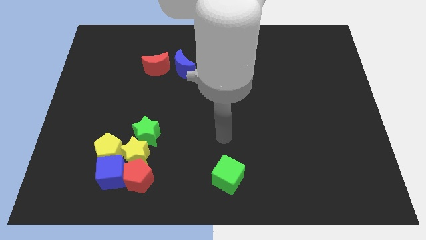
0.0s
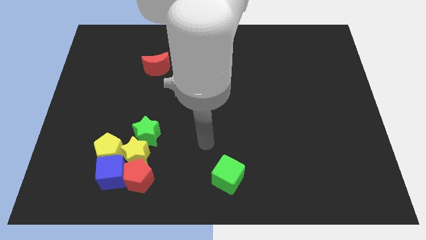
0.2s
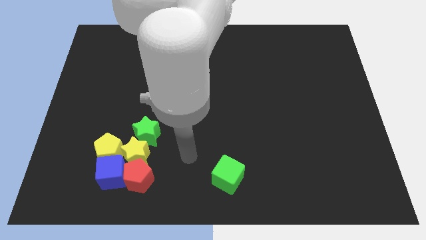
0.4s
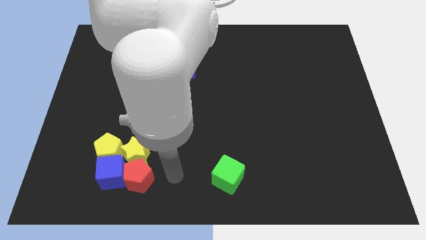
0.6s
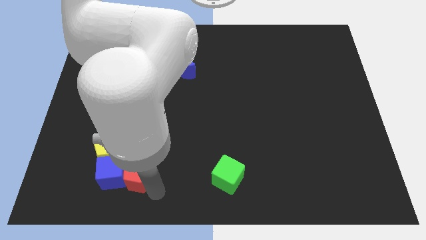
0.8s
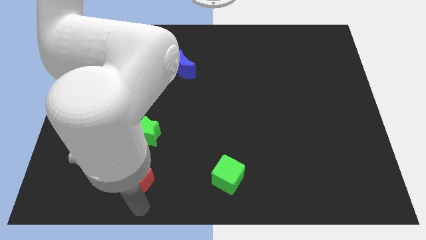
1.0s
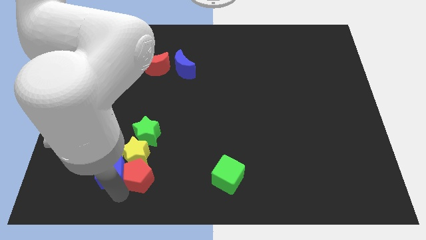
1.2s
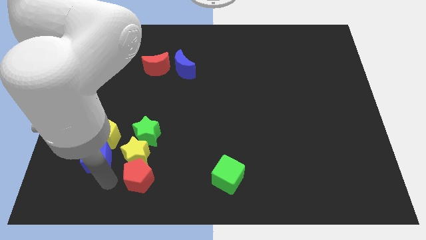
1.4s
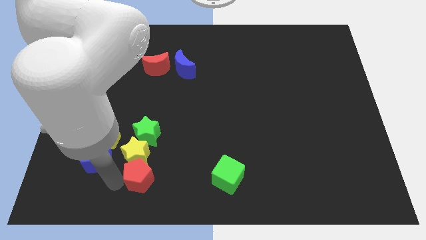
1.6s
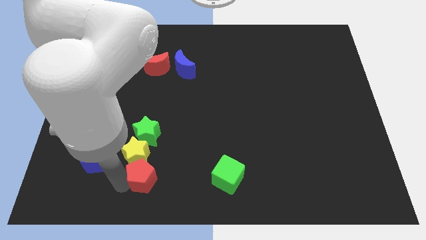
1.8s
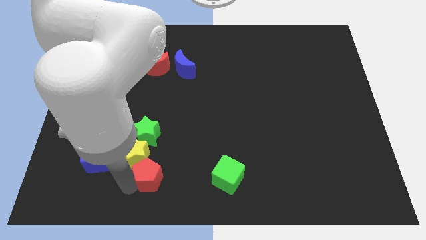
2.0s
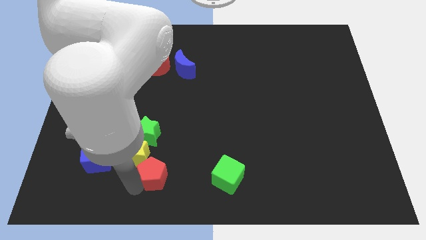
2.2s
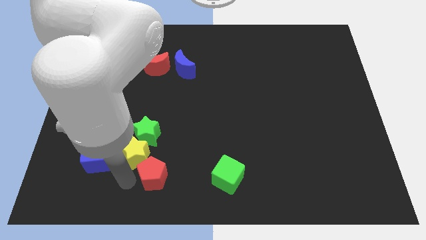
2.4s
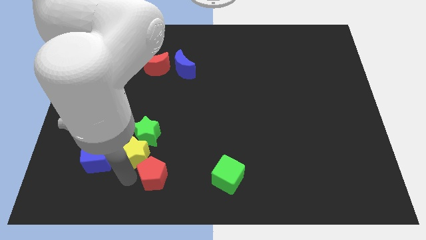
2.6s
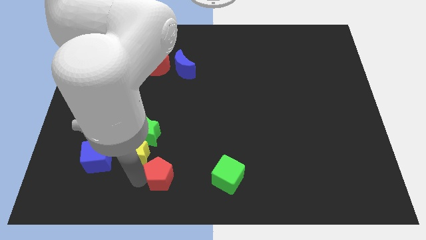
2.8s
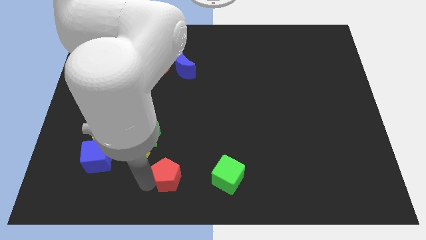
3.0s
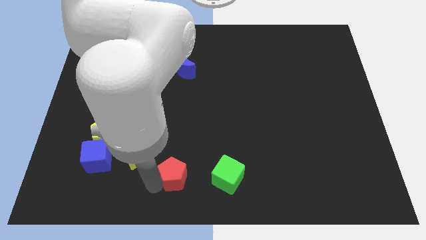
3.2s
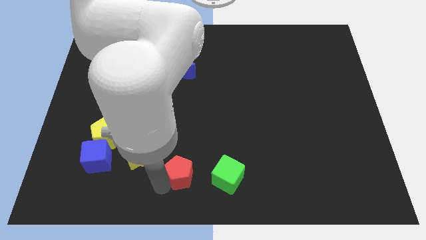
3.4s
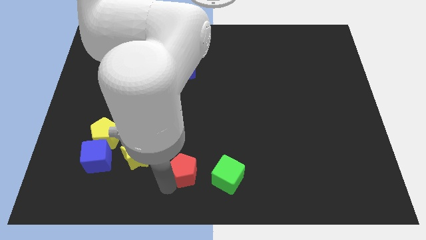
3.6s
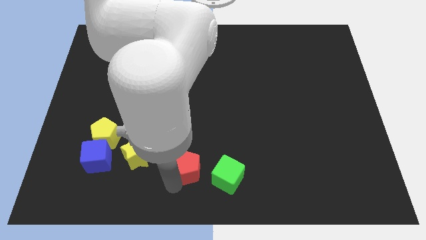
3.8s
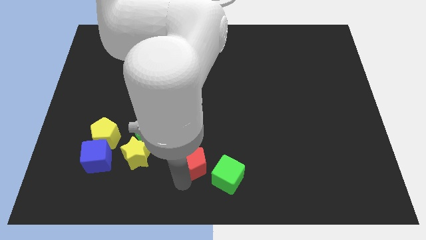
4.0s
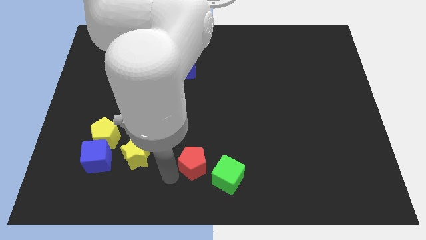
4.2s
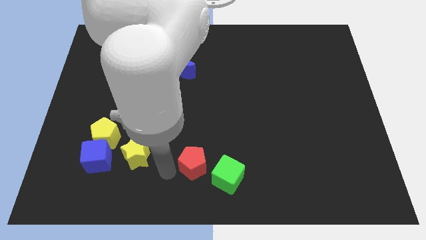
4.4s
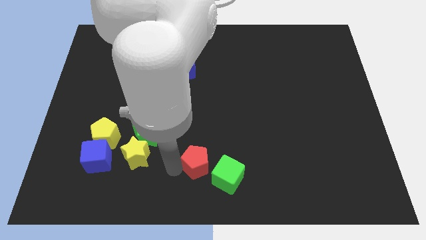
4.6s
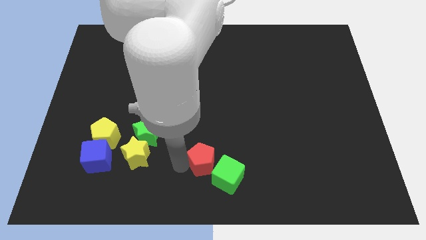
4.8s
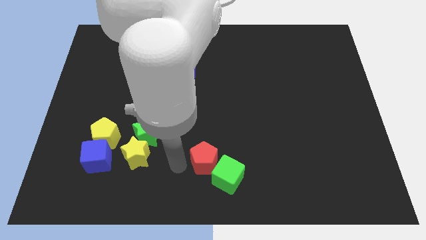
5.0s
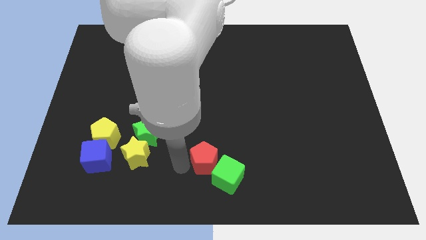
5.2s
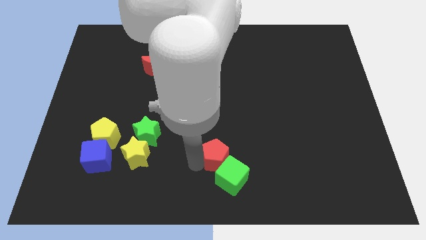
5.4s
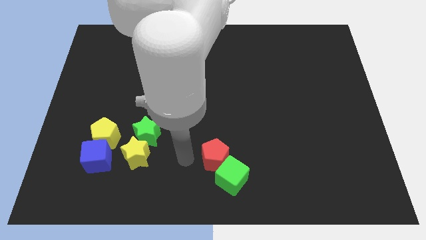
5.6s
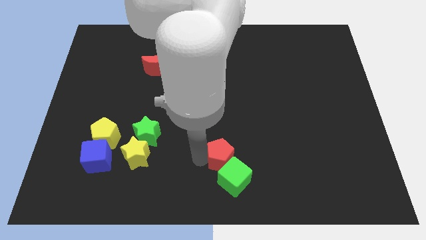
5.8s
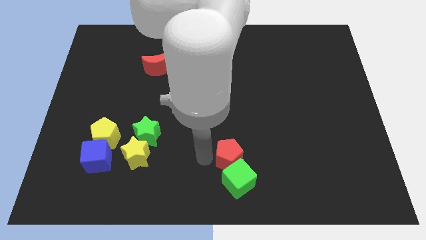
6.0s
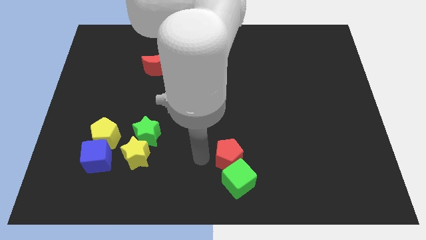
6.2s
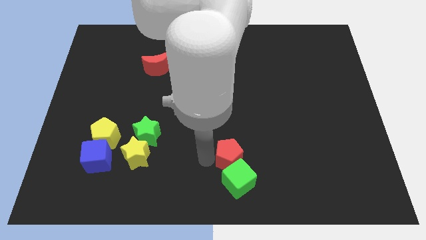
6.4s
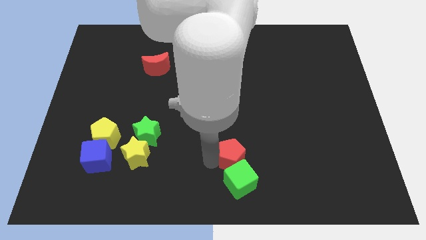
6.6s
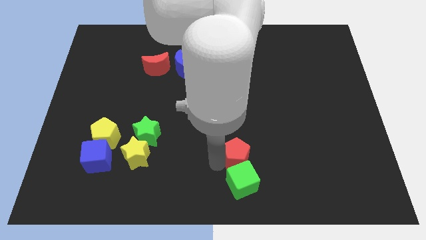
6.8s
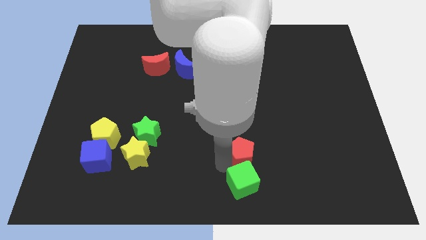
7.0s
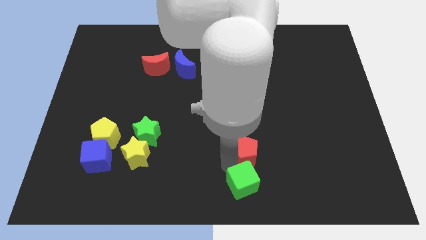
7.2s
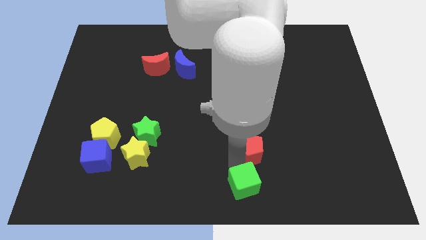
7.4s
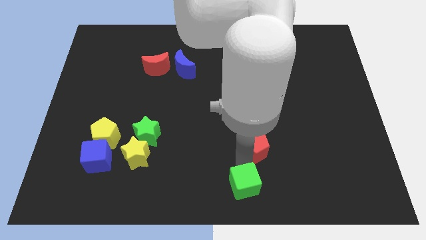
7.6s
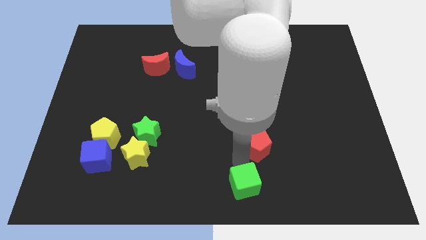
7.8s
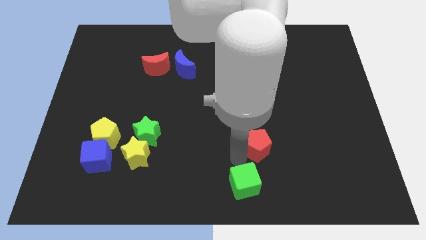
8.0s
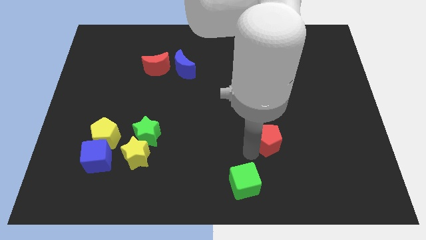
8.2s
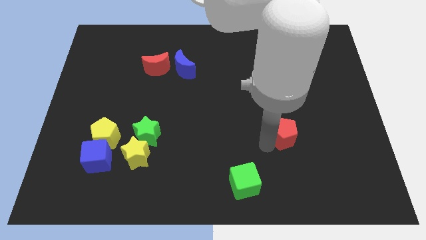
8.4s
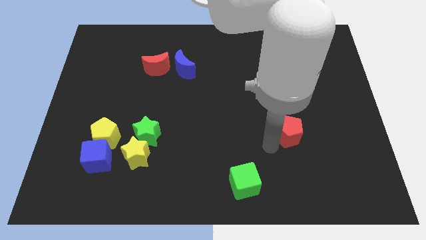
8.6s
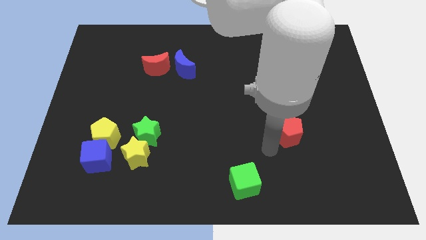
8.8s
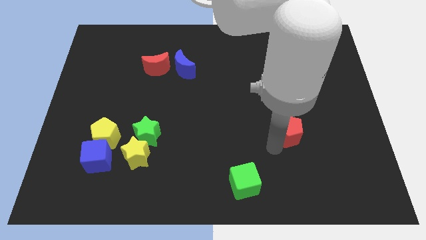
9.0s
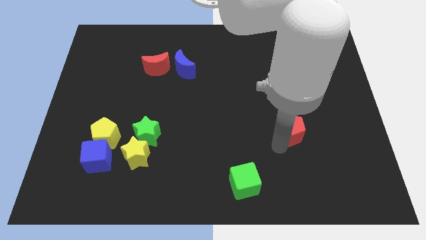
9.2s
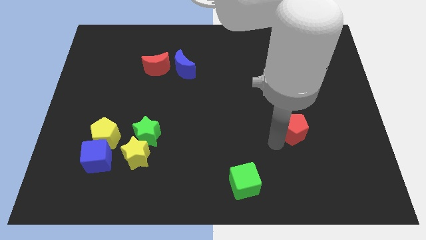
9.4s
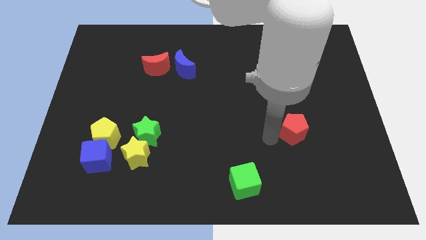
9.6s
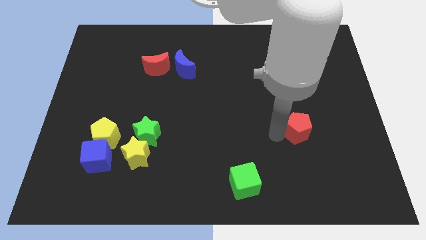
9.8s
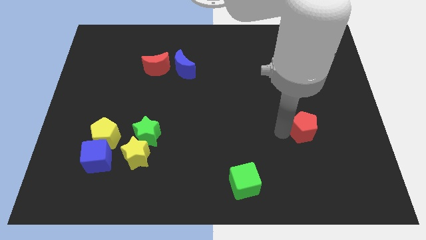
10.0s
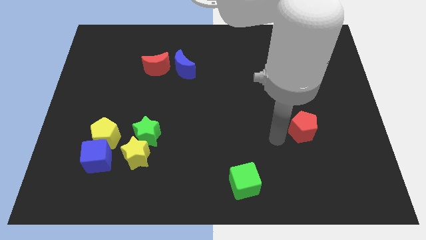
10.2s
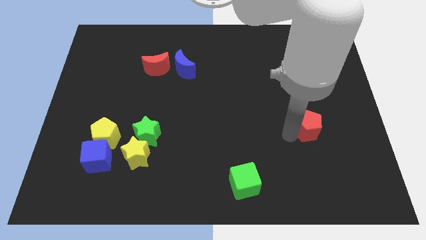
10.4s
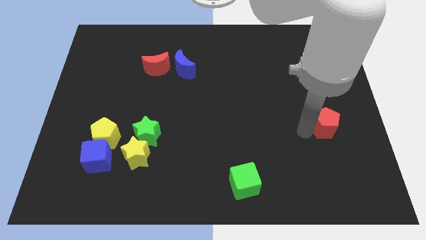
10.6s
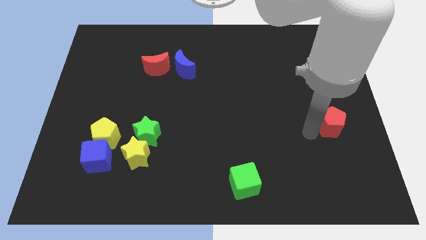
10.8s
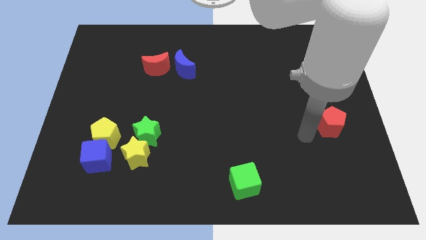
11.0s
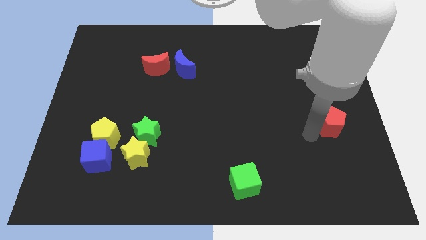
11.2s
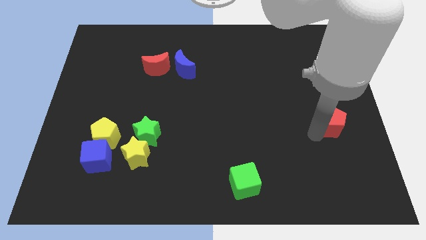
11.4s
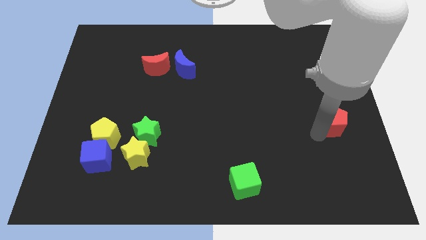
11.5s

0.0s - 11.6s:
slide the red pentagon to the right side

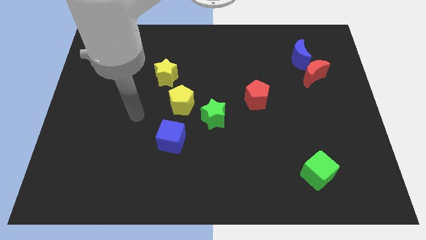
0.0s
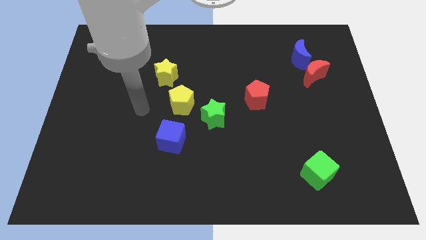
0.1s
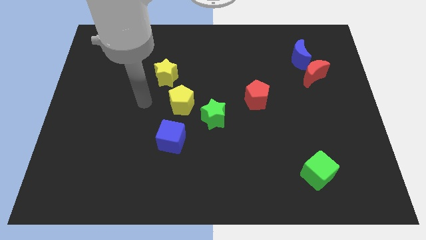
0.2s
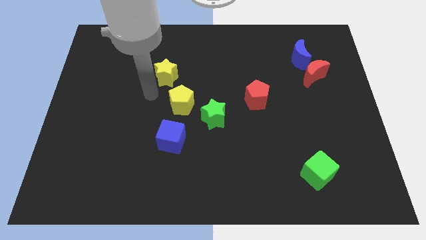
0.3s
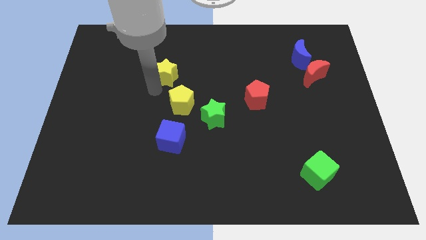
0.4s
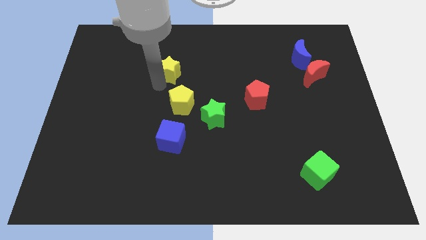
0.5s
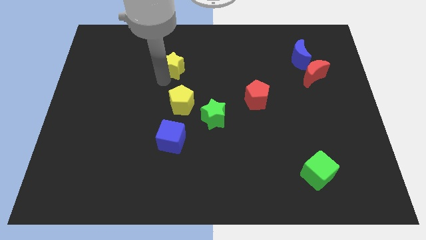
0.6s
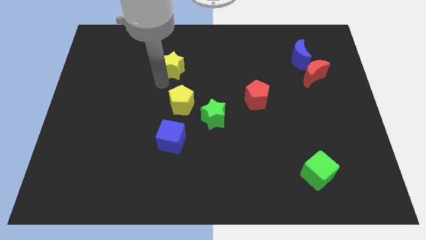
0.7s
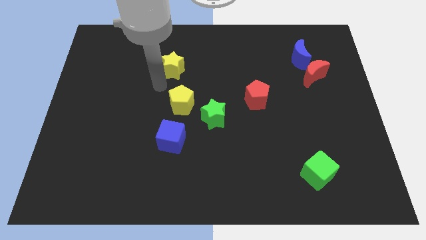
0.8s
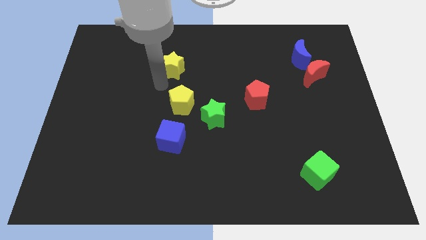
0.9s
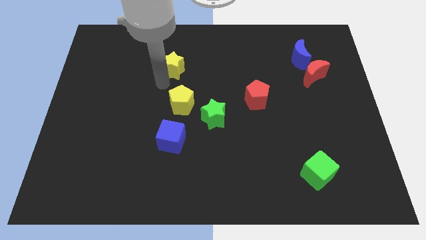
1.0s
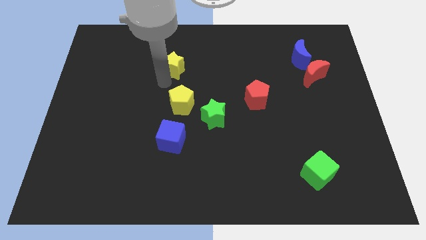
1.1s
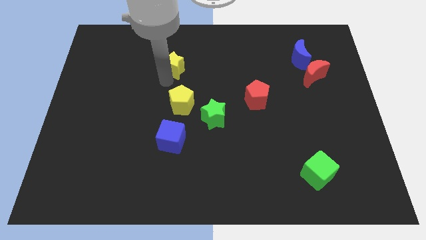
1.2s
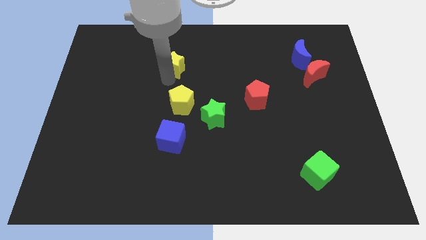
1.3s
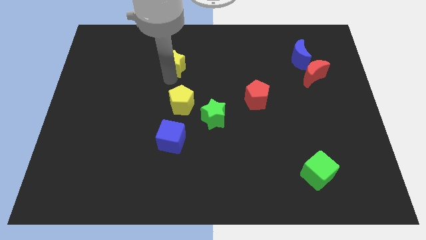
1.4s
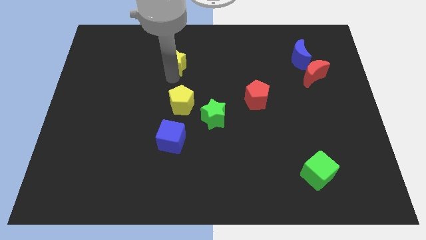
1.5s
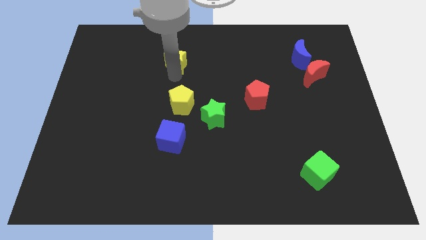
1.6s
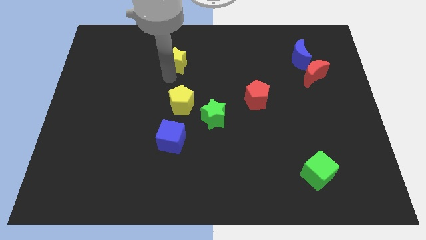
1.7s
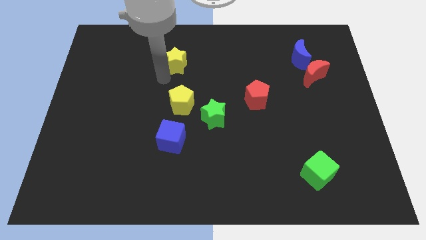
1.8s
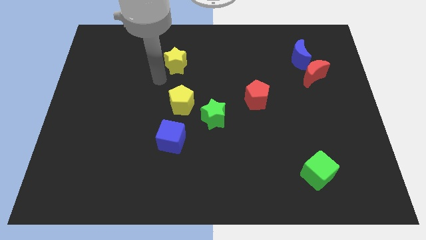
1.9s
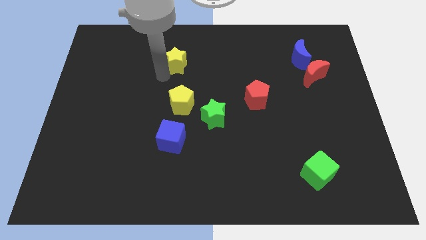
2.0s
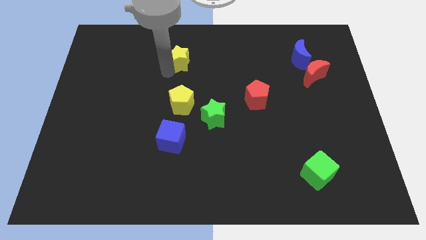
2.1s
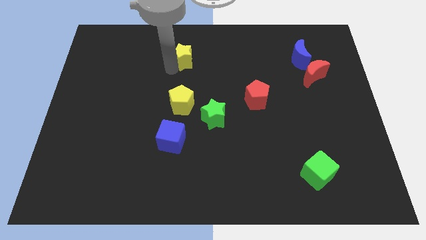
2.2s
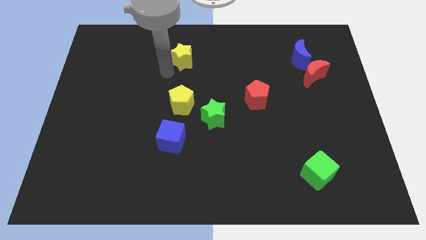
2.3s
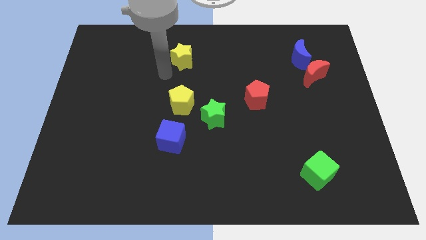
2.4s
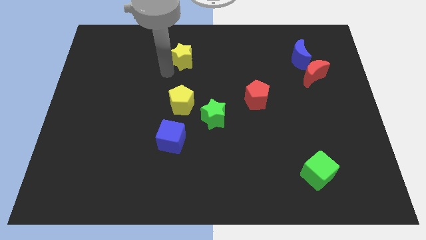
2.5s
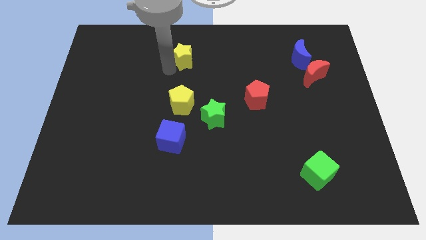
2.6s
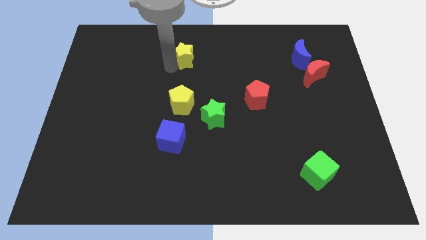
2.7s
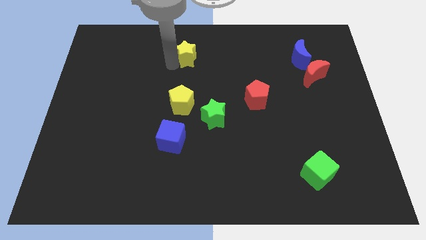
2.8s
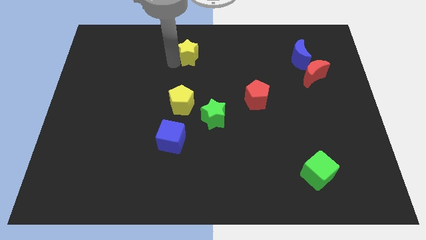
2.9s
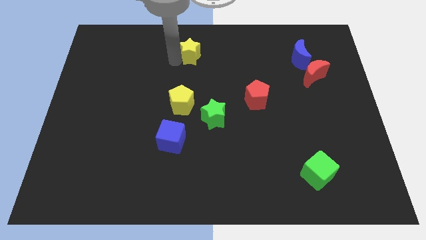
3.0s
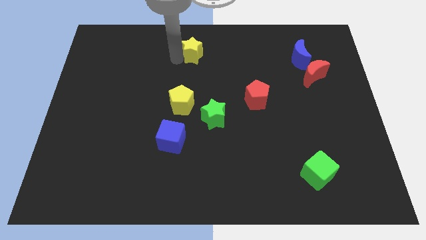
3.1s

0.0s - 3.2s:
move the yellow star to the top side
